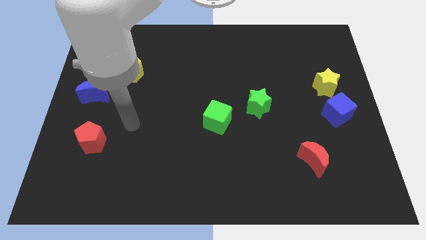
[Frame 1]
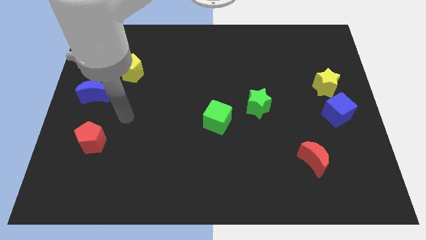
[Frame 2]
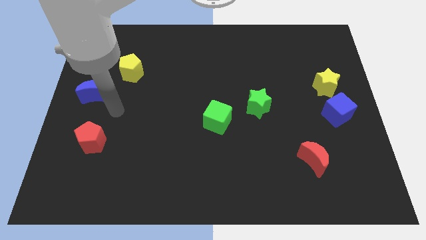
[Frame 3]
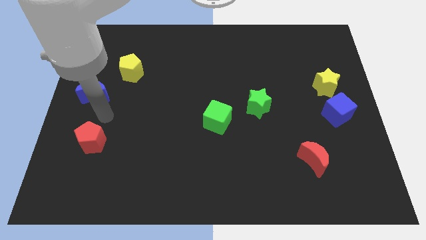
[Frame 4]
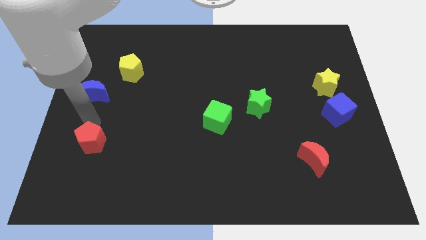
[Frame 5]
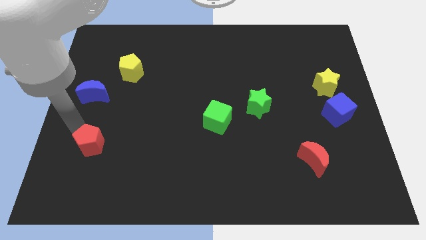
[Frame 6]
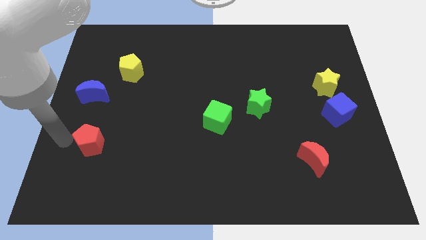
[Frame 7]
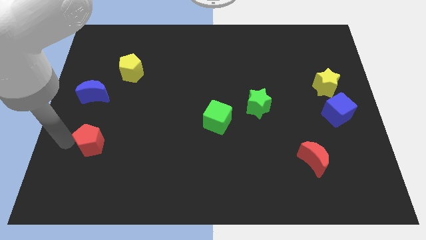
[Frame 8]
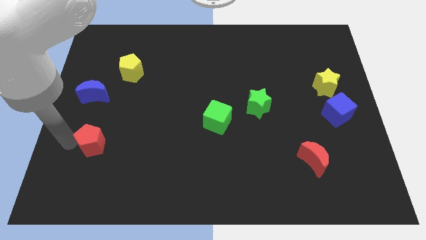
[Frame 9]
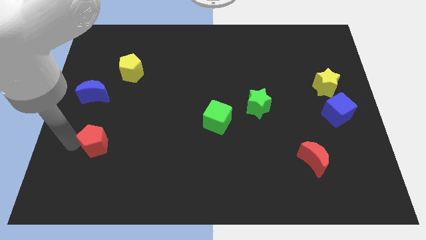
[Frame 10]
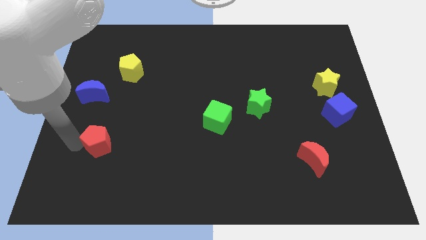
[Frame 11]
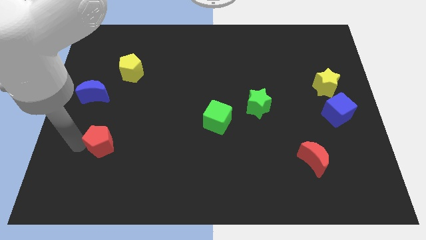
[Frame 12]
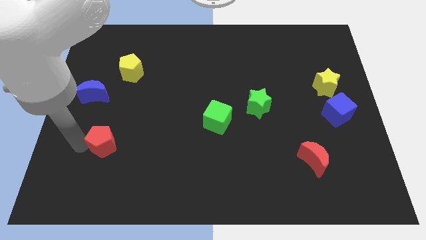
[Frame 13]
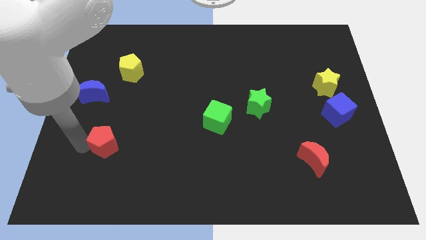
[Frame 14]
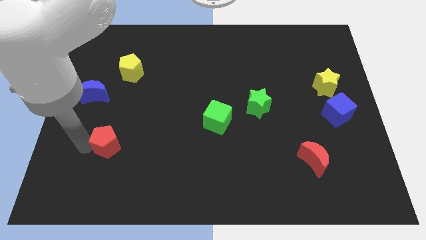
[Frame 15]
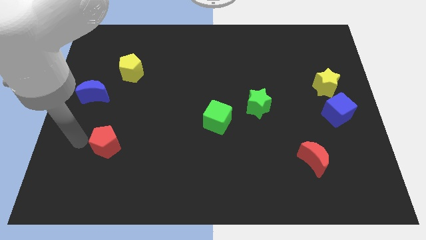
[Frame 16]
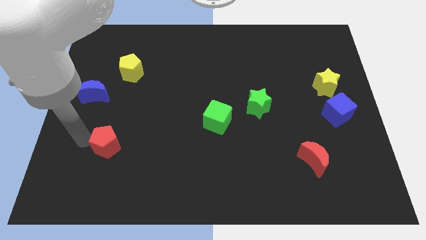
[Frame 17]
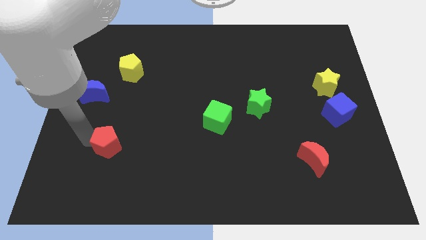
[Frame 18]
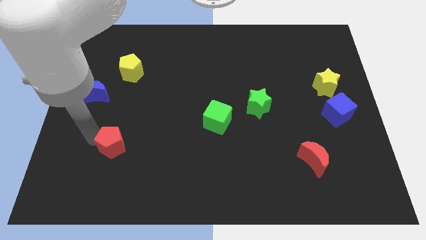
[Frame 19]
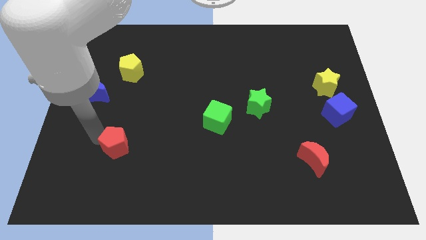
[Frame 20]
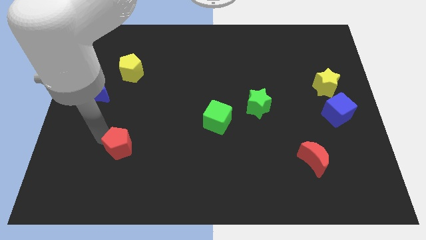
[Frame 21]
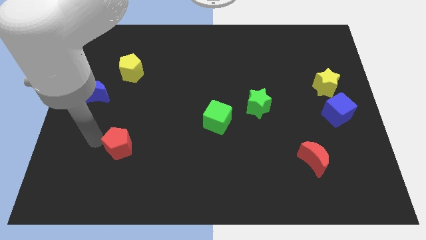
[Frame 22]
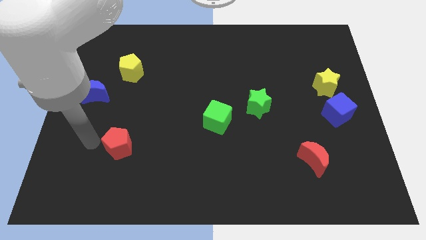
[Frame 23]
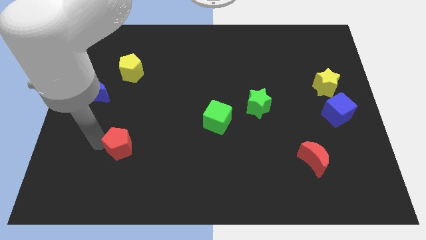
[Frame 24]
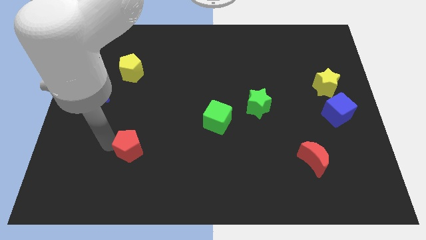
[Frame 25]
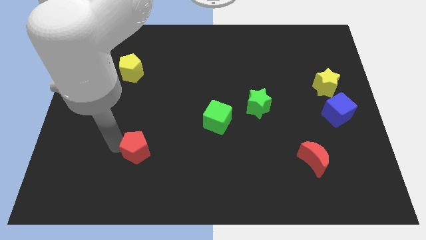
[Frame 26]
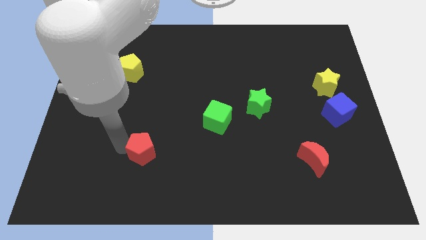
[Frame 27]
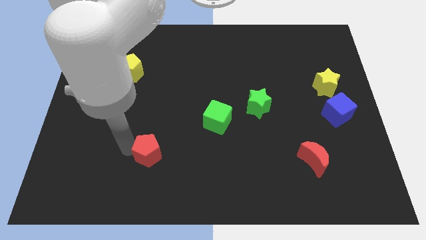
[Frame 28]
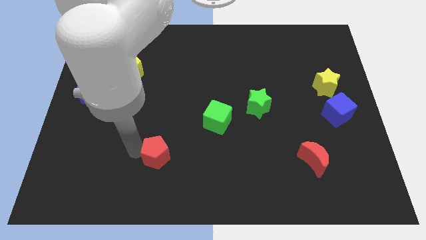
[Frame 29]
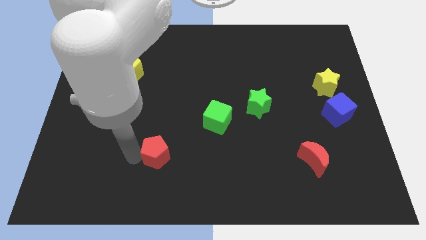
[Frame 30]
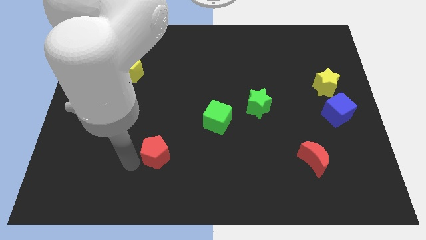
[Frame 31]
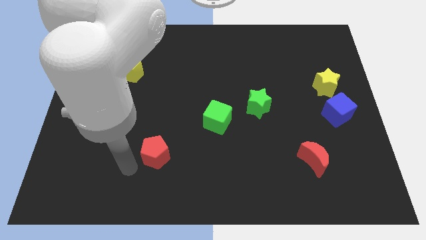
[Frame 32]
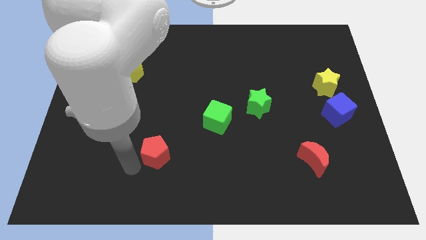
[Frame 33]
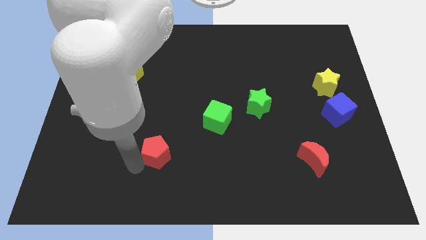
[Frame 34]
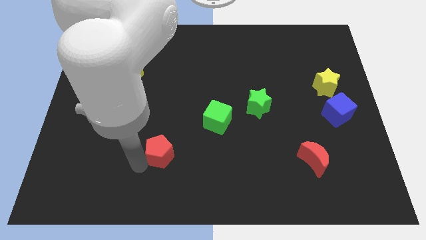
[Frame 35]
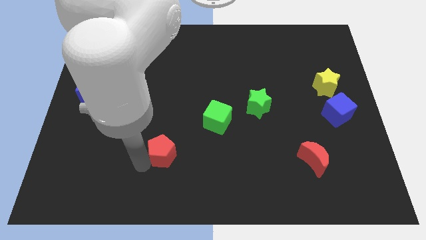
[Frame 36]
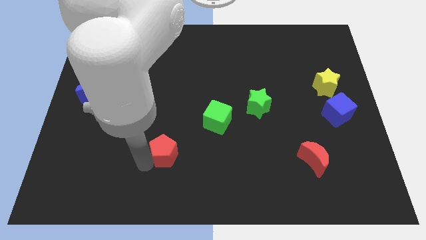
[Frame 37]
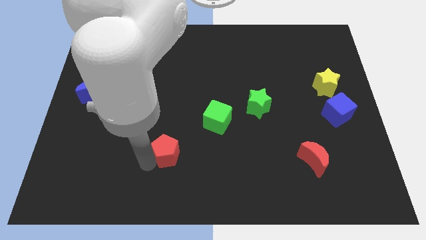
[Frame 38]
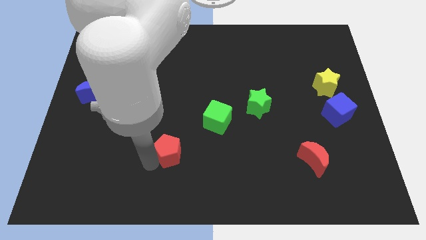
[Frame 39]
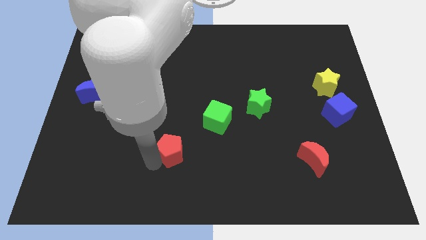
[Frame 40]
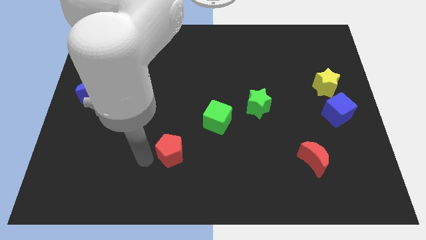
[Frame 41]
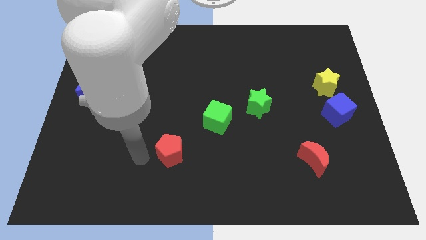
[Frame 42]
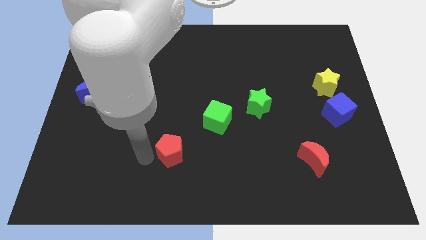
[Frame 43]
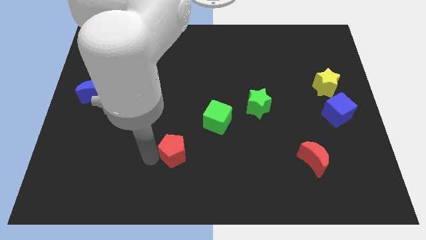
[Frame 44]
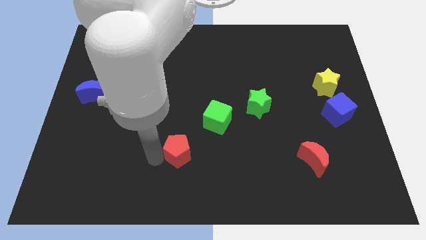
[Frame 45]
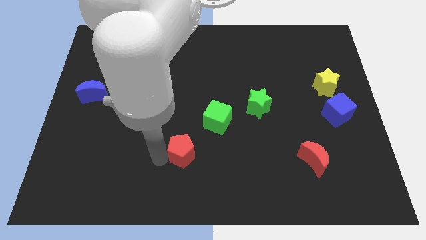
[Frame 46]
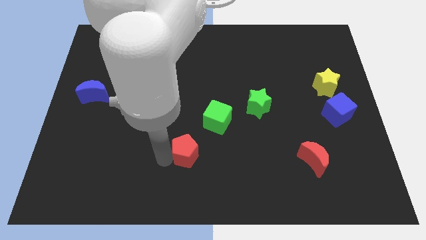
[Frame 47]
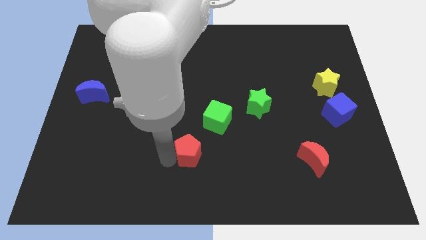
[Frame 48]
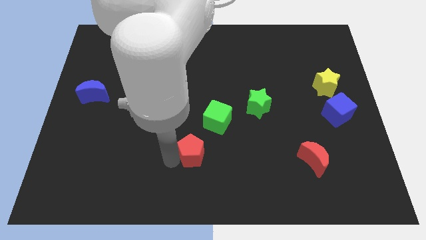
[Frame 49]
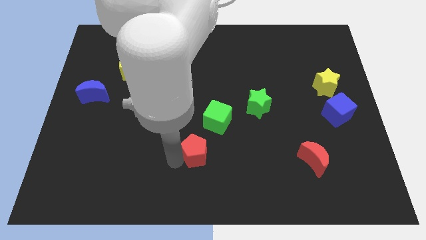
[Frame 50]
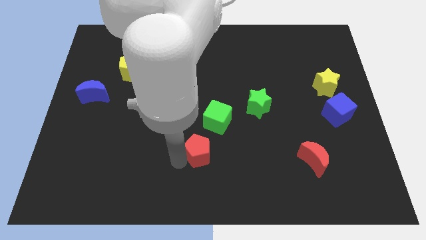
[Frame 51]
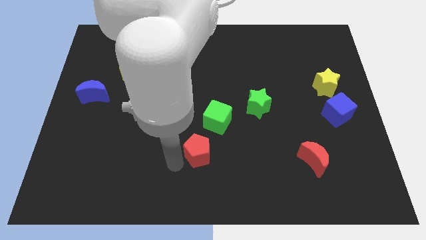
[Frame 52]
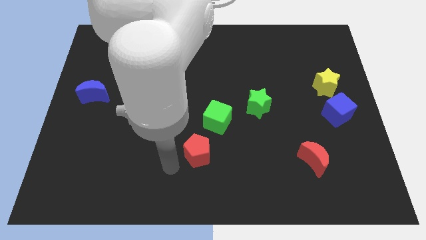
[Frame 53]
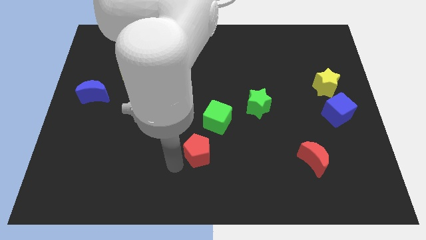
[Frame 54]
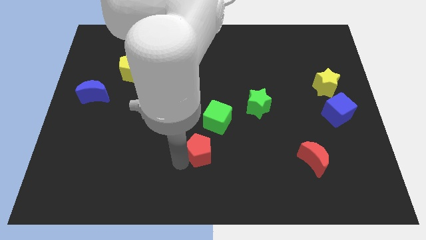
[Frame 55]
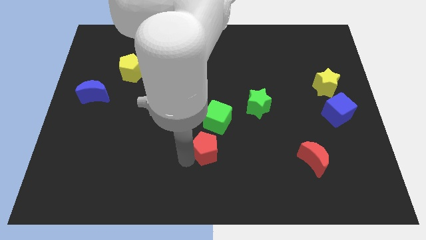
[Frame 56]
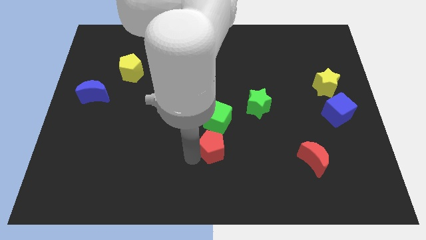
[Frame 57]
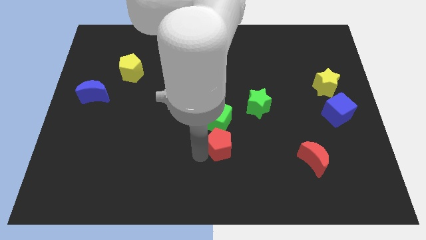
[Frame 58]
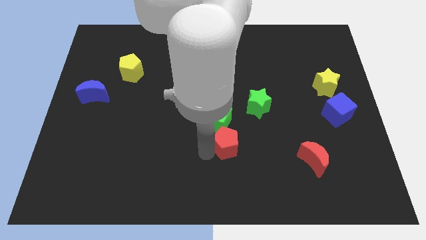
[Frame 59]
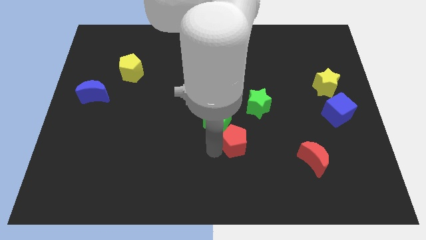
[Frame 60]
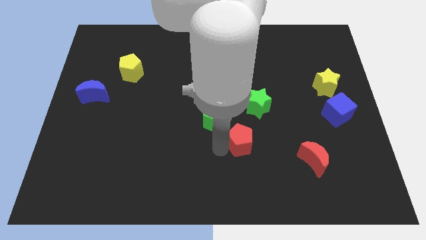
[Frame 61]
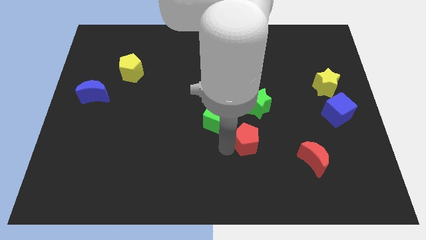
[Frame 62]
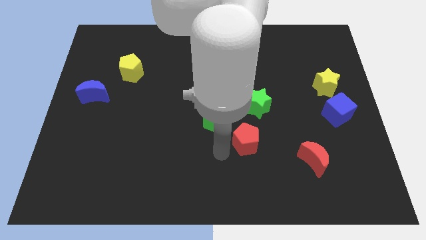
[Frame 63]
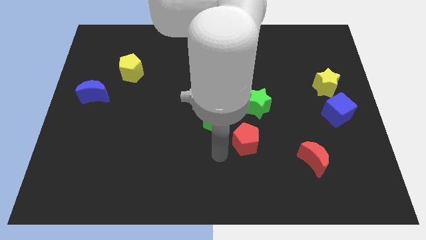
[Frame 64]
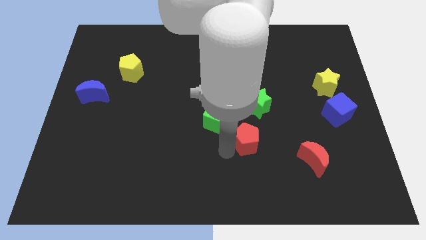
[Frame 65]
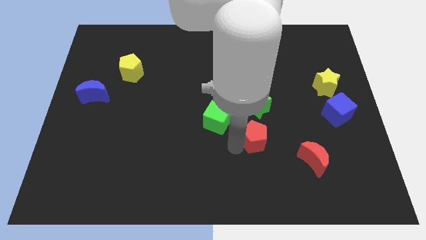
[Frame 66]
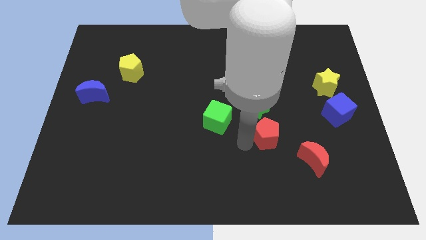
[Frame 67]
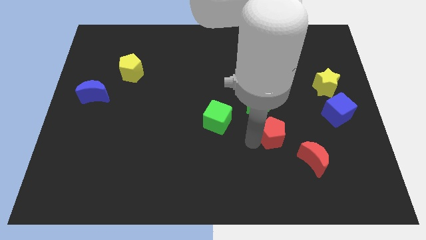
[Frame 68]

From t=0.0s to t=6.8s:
push the red pentagon to the bottom right of the green star

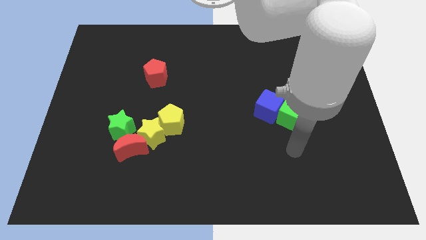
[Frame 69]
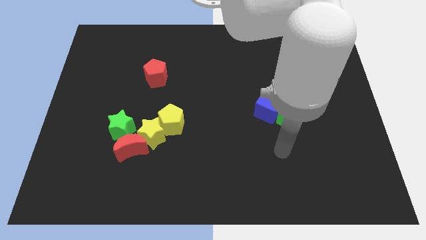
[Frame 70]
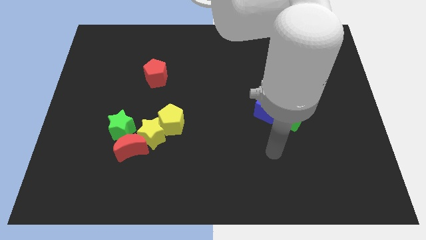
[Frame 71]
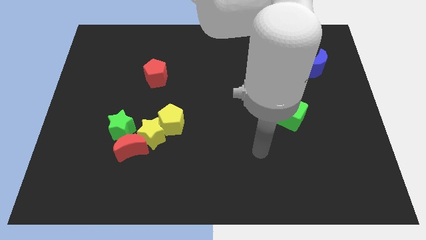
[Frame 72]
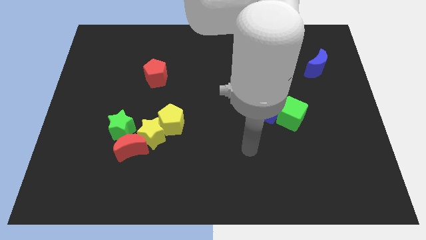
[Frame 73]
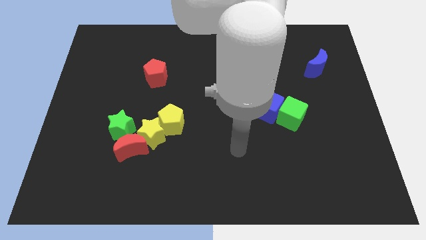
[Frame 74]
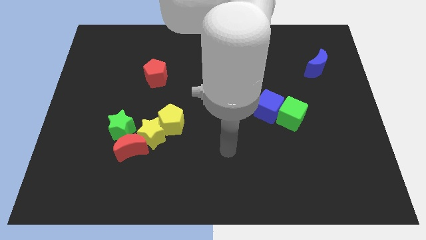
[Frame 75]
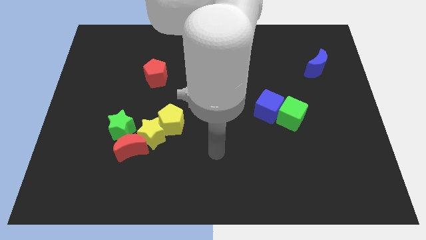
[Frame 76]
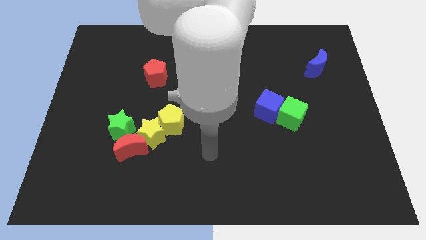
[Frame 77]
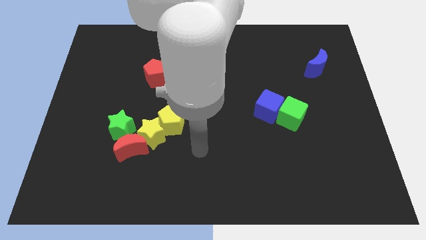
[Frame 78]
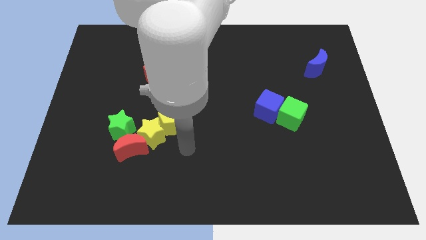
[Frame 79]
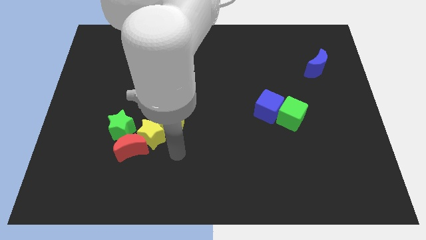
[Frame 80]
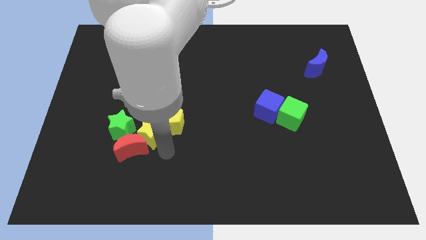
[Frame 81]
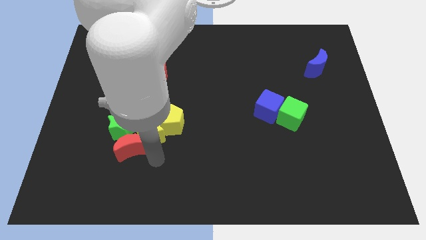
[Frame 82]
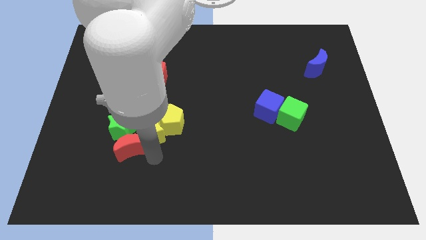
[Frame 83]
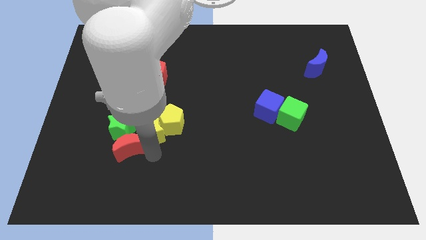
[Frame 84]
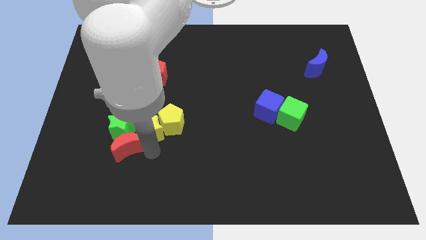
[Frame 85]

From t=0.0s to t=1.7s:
put the yellow star to the top right of the green star
